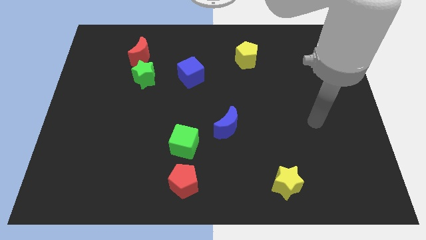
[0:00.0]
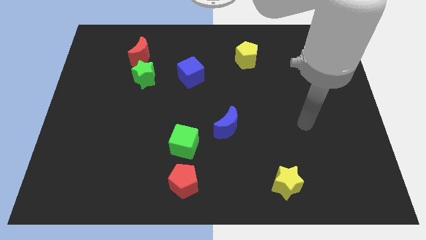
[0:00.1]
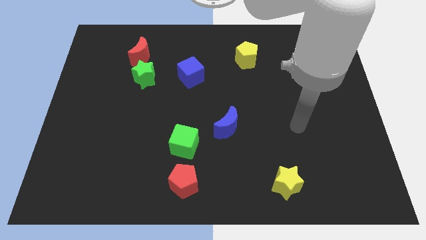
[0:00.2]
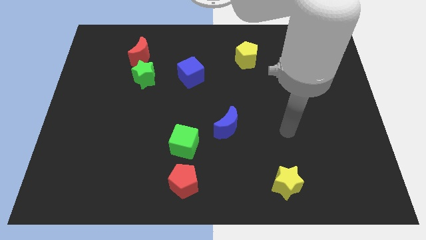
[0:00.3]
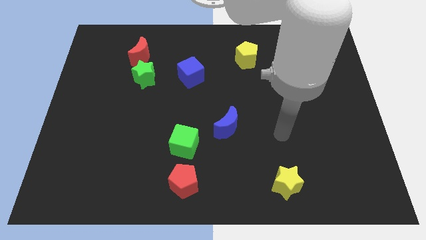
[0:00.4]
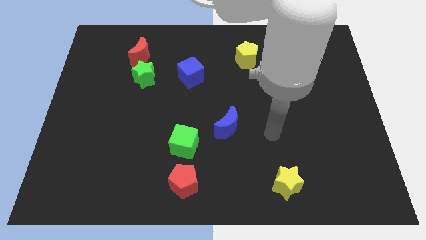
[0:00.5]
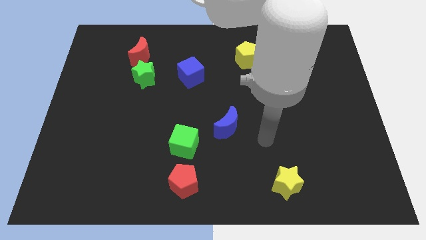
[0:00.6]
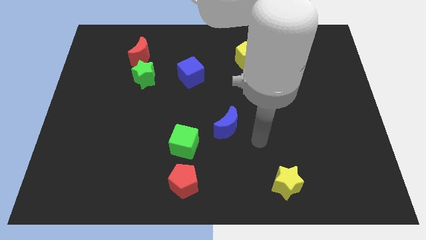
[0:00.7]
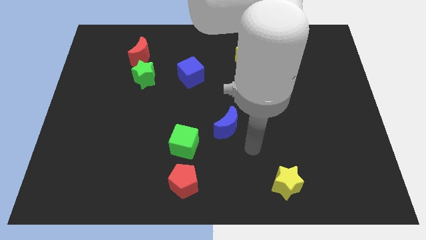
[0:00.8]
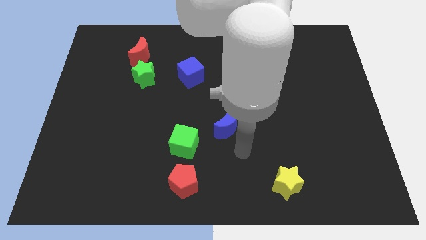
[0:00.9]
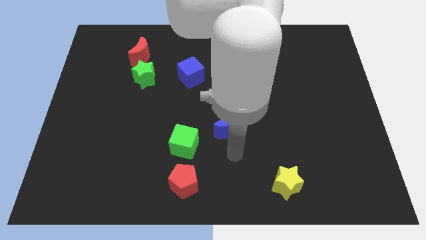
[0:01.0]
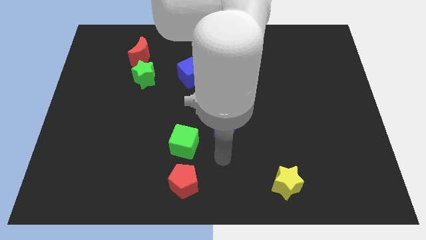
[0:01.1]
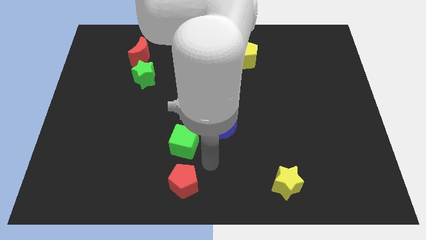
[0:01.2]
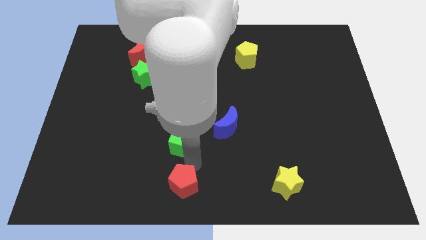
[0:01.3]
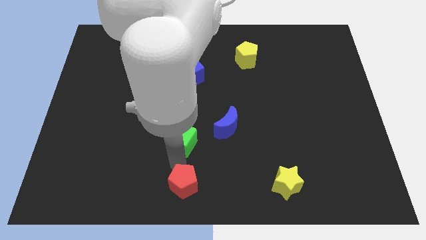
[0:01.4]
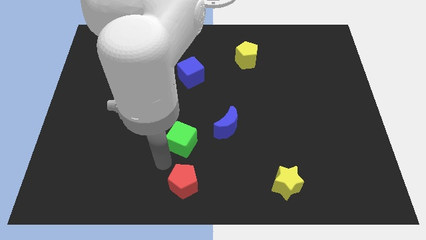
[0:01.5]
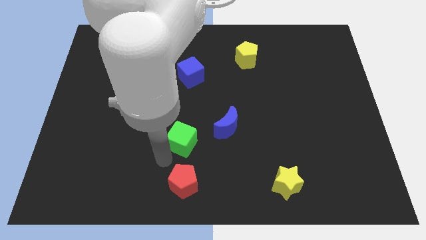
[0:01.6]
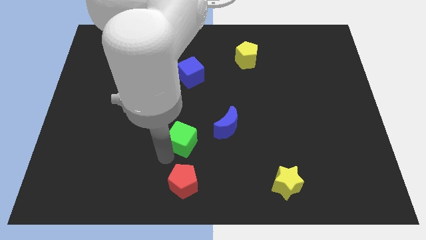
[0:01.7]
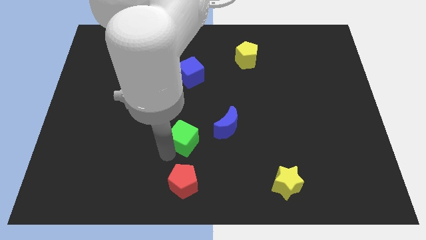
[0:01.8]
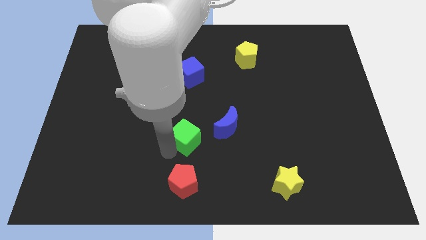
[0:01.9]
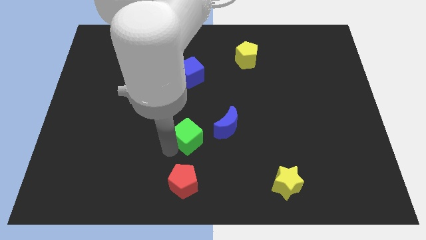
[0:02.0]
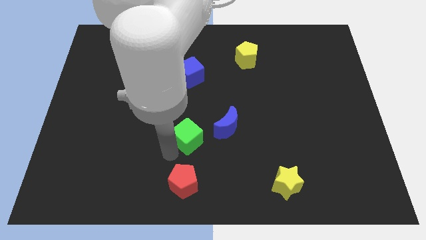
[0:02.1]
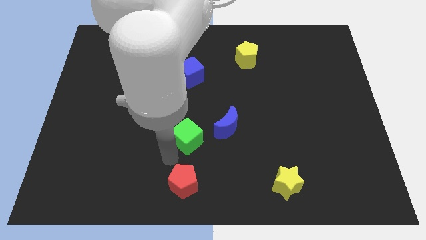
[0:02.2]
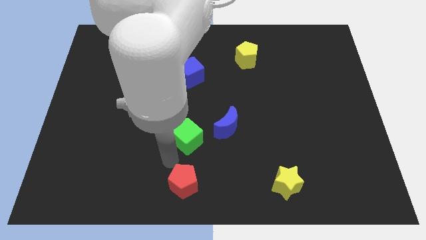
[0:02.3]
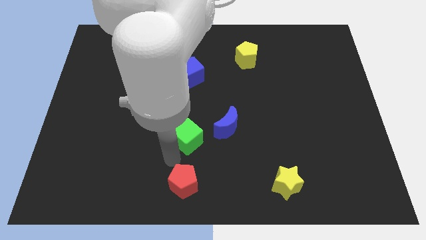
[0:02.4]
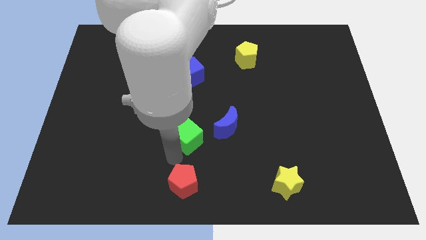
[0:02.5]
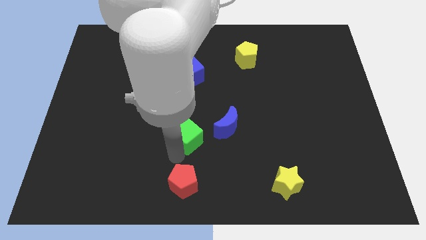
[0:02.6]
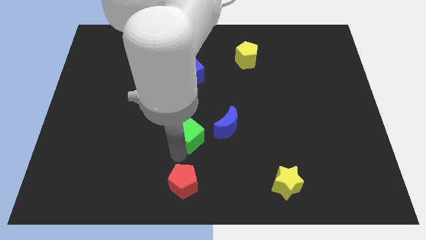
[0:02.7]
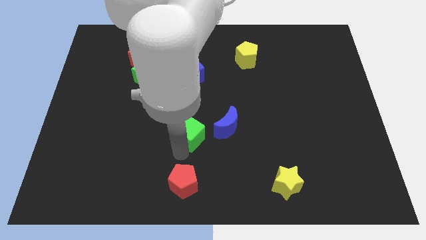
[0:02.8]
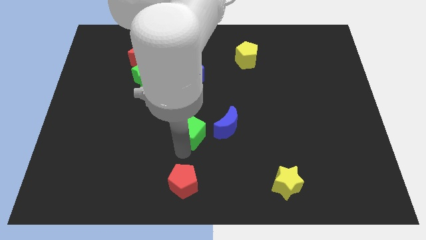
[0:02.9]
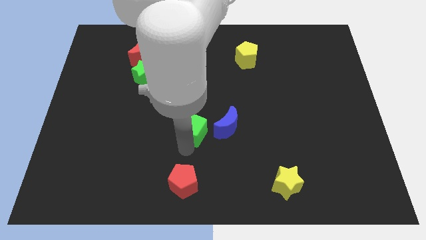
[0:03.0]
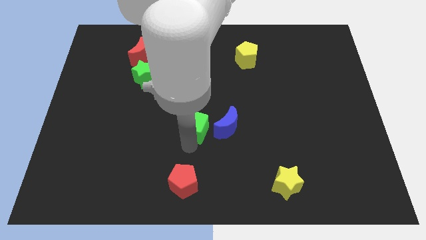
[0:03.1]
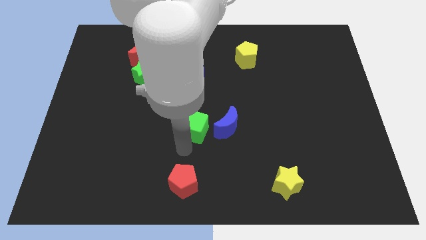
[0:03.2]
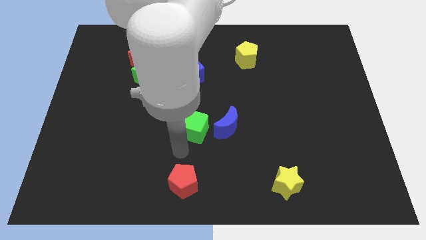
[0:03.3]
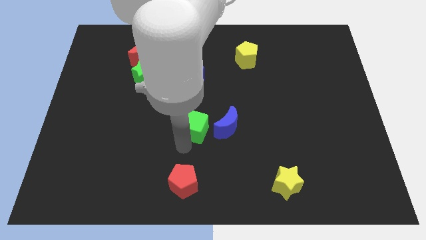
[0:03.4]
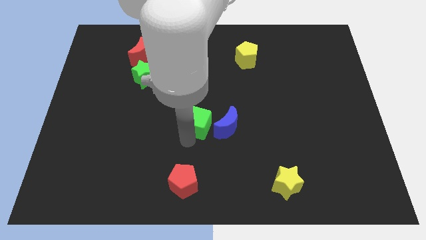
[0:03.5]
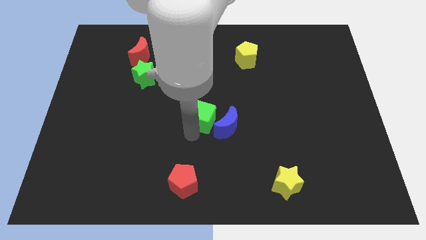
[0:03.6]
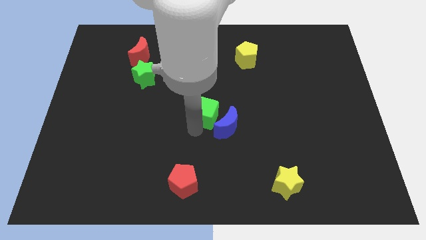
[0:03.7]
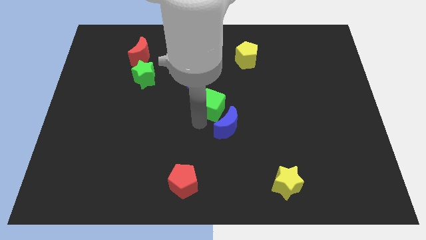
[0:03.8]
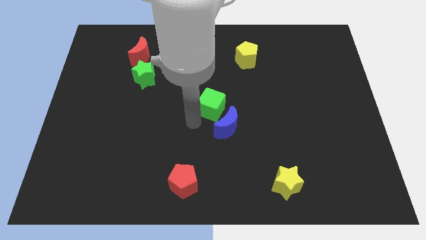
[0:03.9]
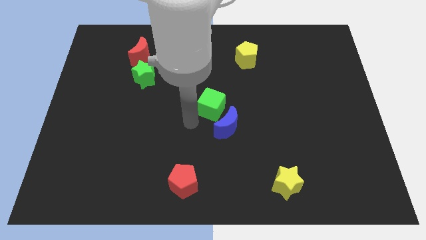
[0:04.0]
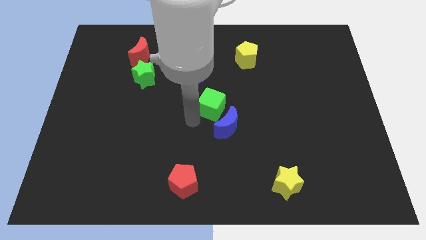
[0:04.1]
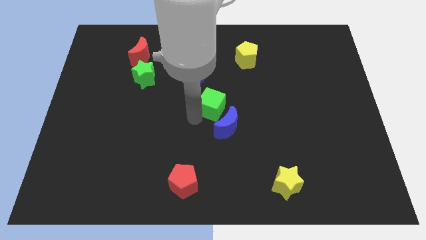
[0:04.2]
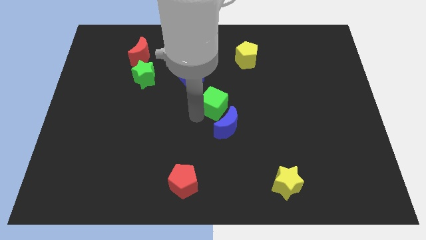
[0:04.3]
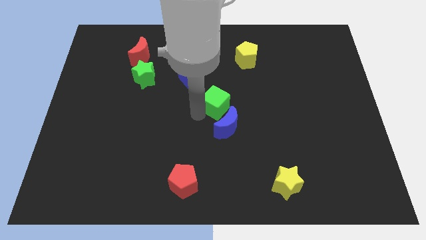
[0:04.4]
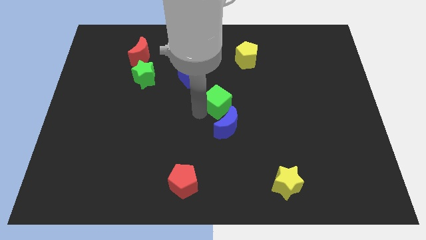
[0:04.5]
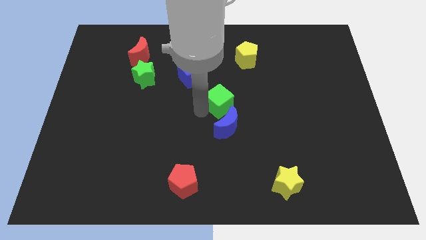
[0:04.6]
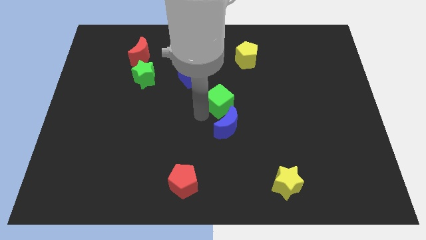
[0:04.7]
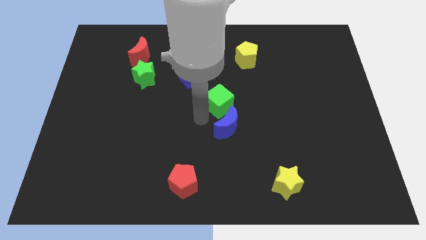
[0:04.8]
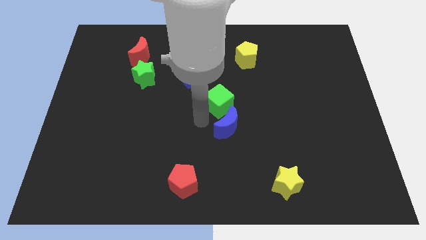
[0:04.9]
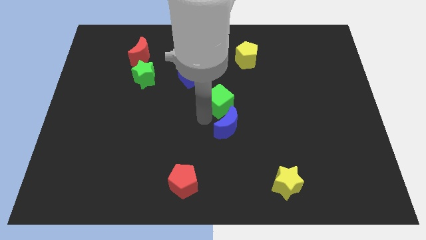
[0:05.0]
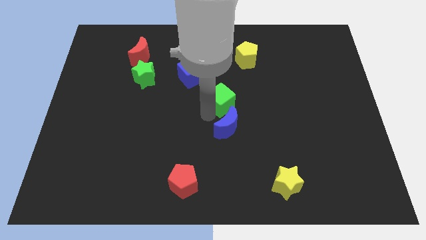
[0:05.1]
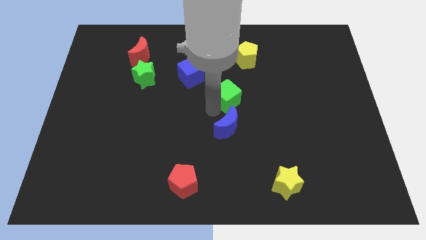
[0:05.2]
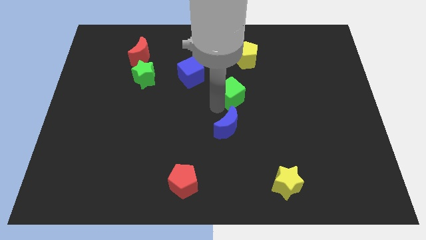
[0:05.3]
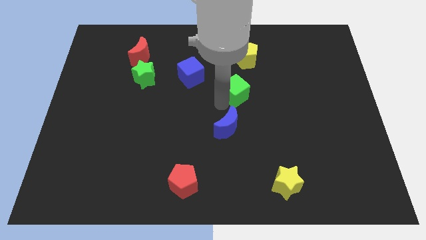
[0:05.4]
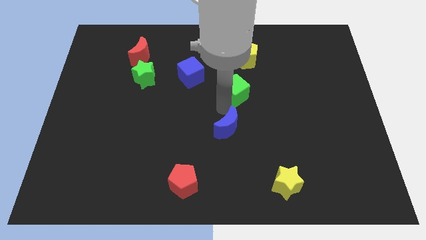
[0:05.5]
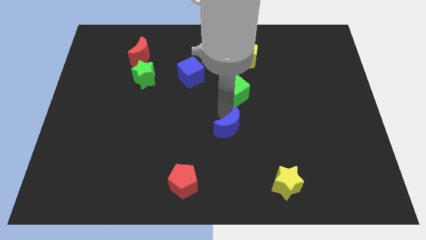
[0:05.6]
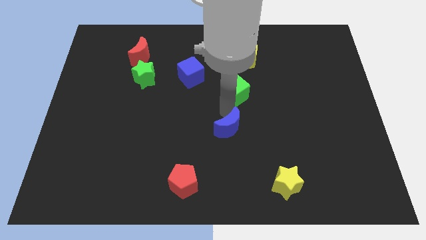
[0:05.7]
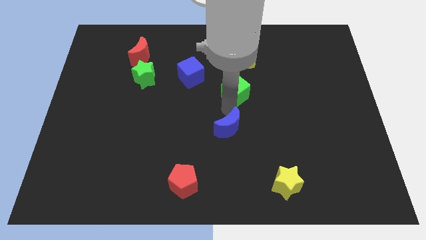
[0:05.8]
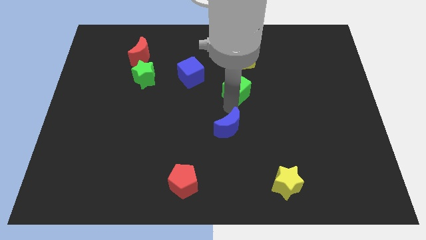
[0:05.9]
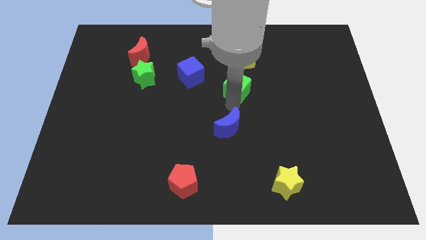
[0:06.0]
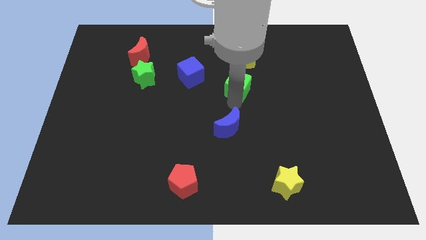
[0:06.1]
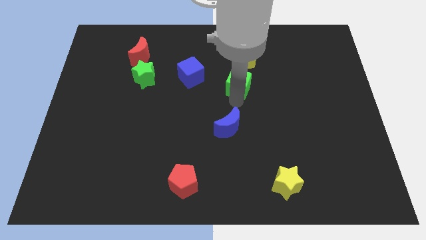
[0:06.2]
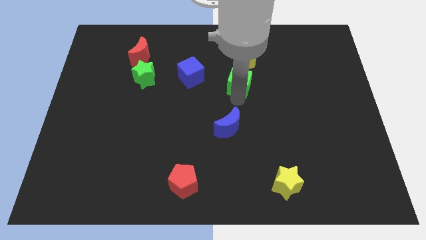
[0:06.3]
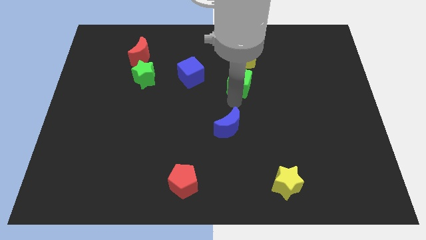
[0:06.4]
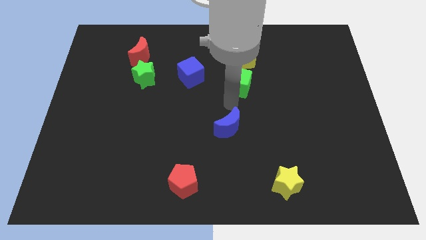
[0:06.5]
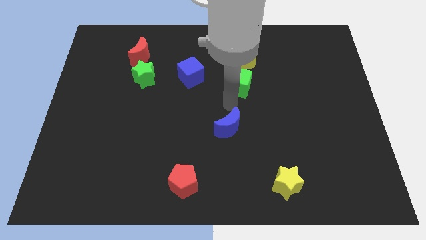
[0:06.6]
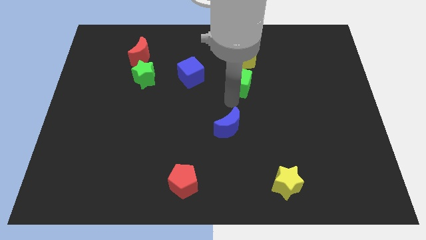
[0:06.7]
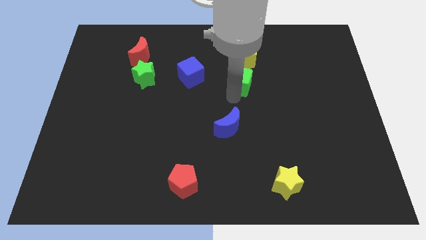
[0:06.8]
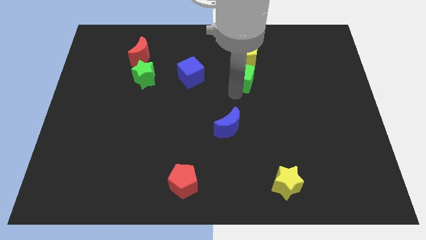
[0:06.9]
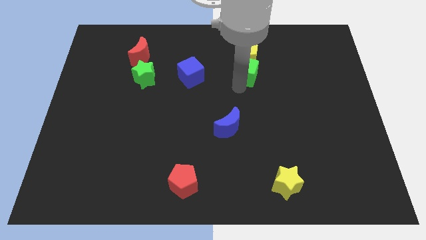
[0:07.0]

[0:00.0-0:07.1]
slide the green cube towards the yellow pentagon
